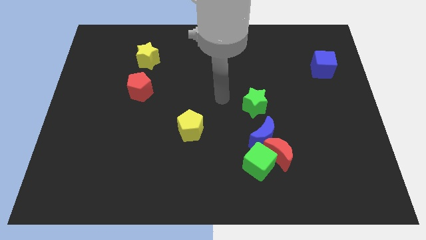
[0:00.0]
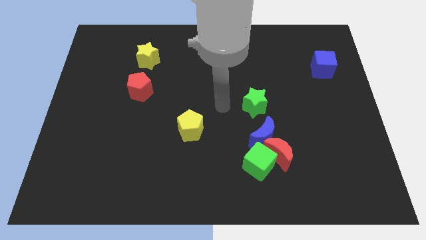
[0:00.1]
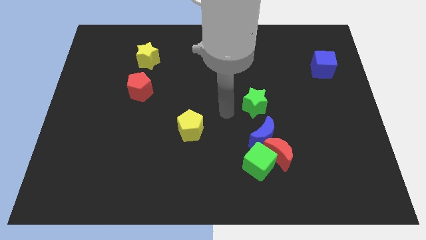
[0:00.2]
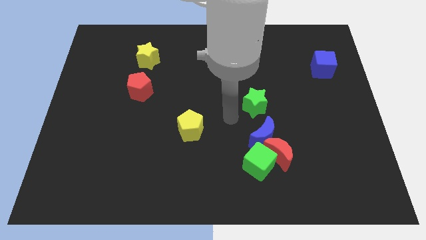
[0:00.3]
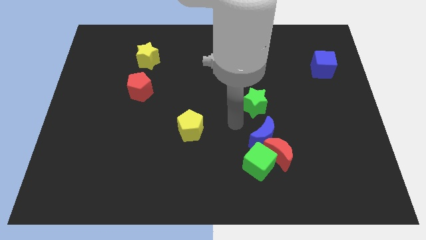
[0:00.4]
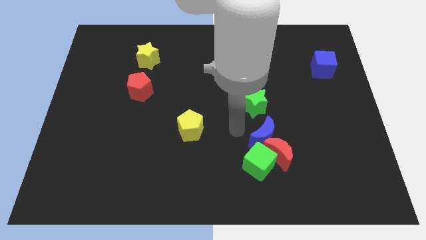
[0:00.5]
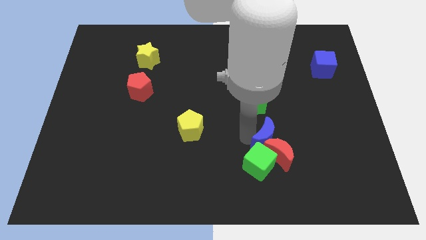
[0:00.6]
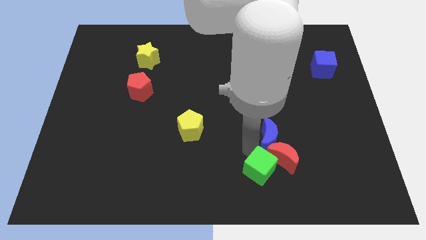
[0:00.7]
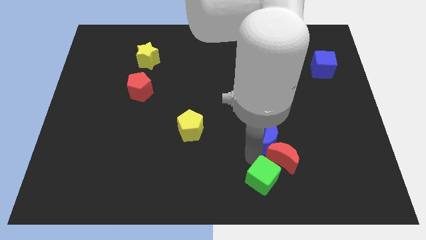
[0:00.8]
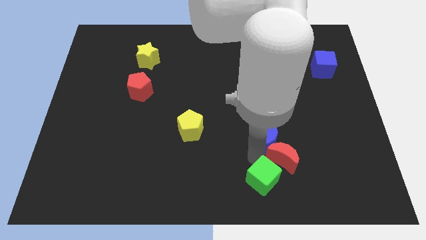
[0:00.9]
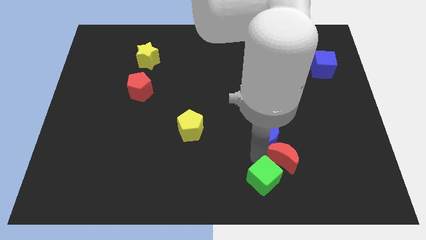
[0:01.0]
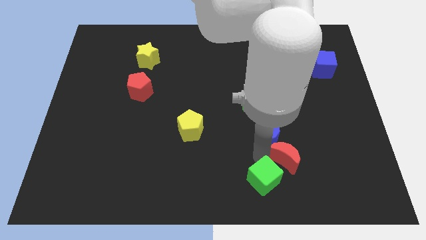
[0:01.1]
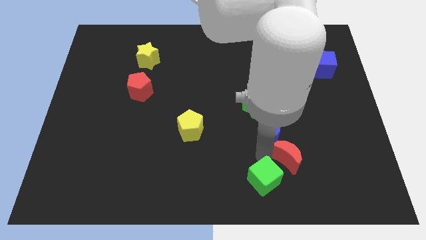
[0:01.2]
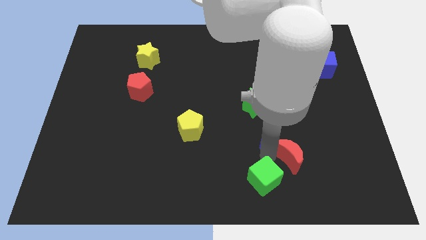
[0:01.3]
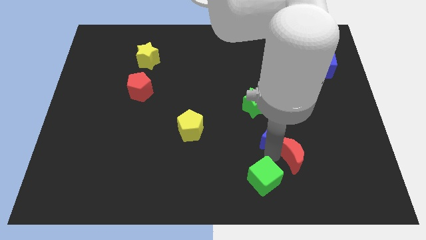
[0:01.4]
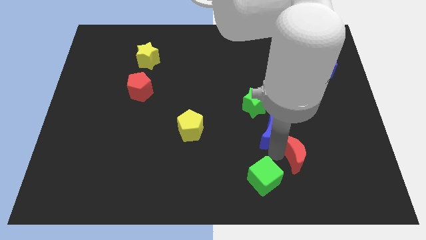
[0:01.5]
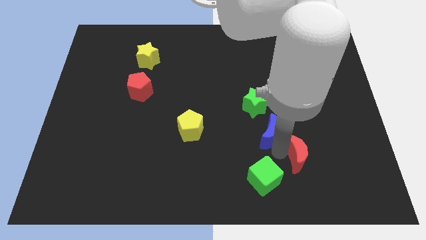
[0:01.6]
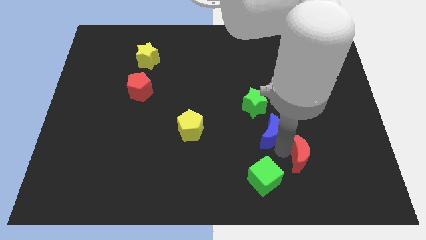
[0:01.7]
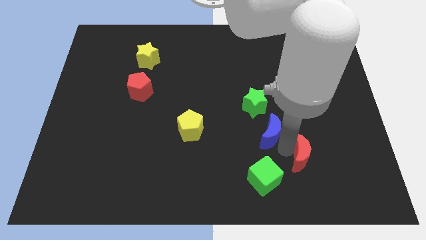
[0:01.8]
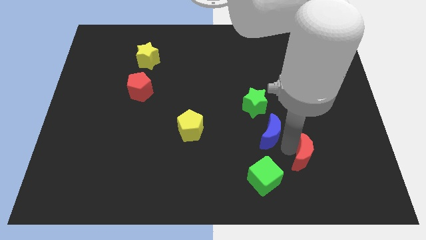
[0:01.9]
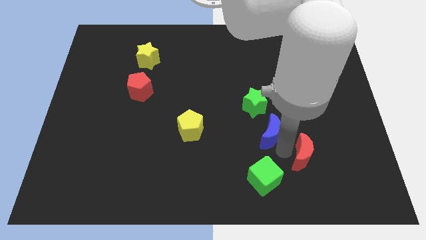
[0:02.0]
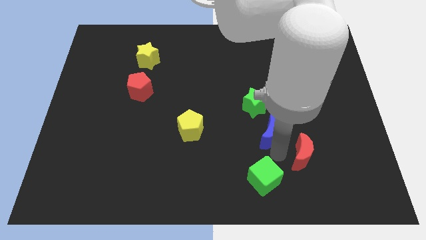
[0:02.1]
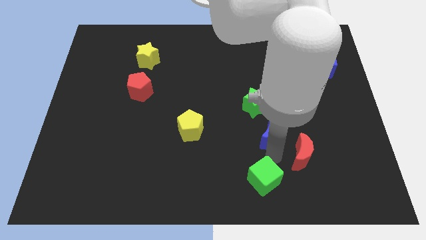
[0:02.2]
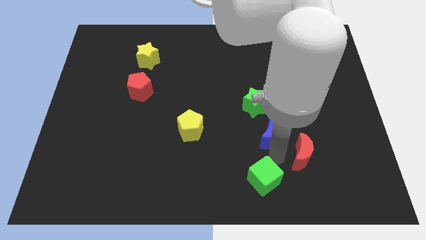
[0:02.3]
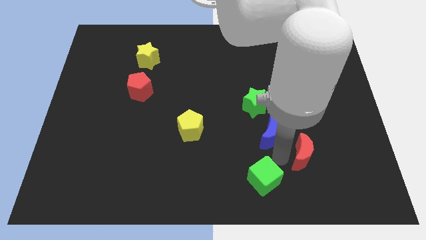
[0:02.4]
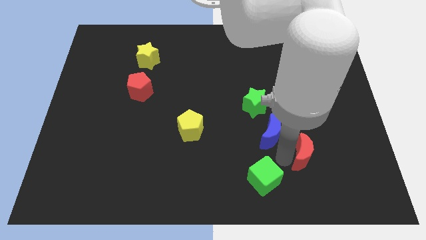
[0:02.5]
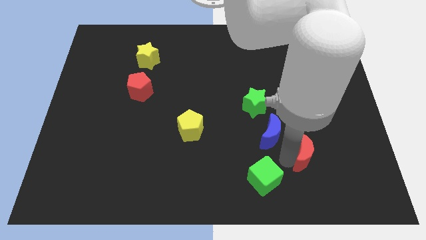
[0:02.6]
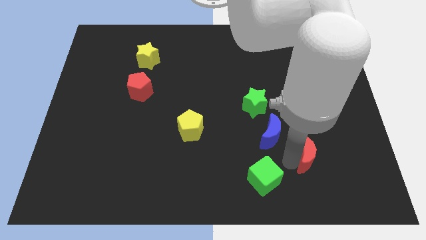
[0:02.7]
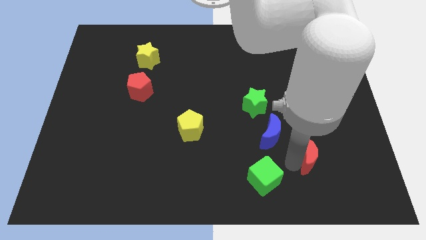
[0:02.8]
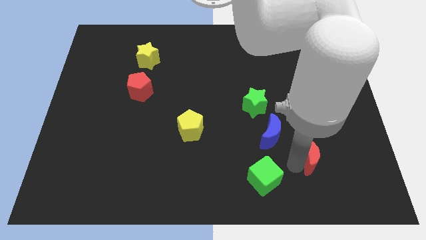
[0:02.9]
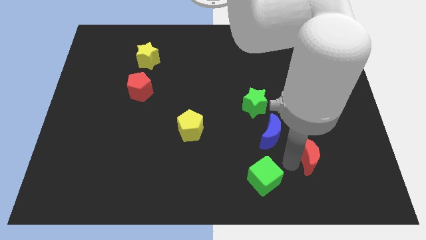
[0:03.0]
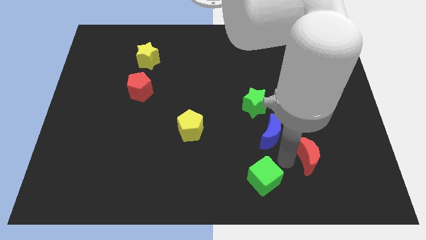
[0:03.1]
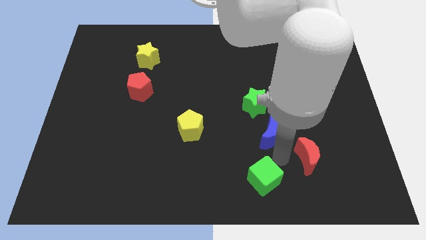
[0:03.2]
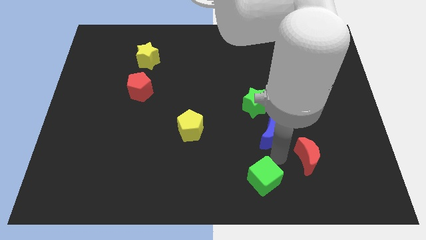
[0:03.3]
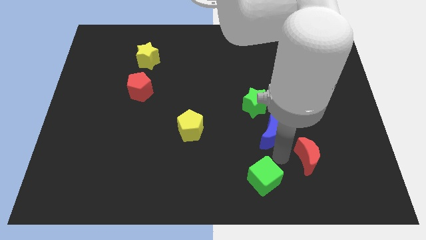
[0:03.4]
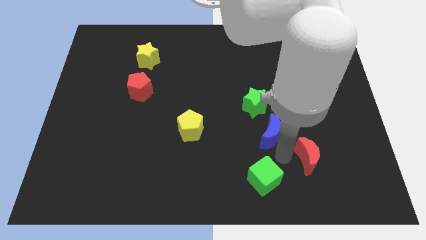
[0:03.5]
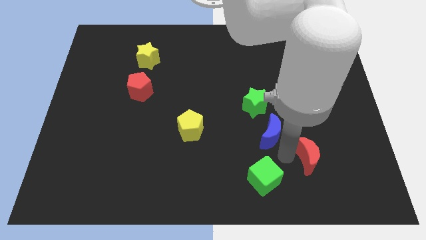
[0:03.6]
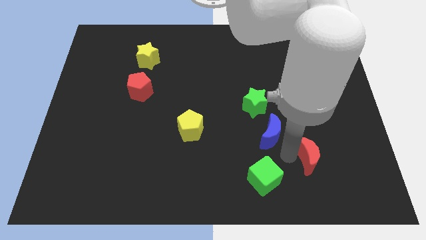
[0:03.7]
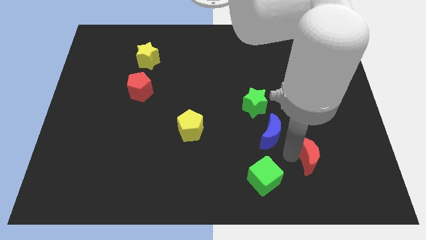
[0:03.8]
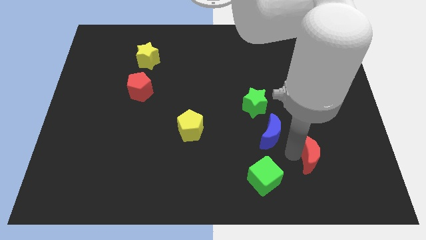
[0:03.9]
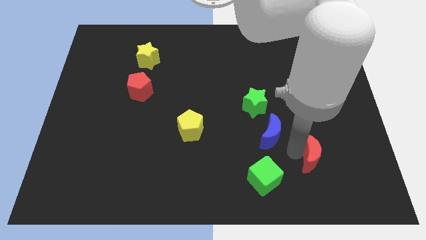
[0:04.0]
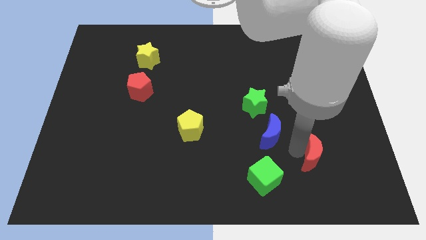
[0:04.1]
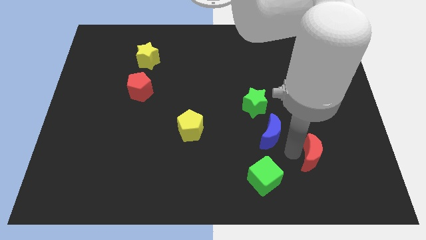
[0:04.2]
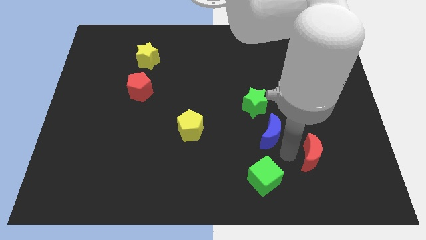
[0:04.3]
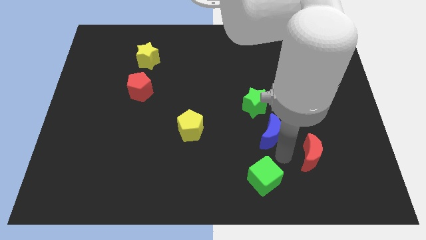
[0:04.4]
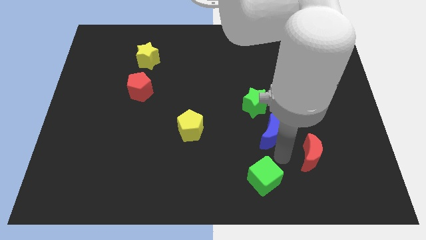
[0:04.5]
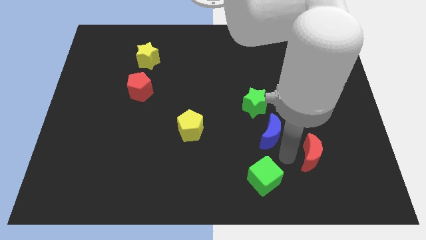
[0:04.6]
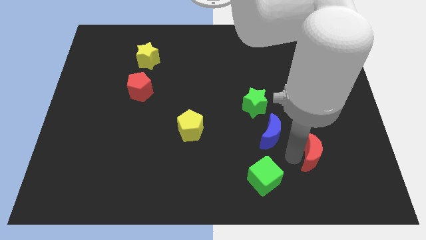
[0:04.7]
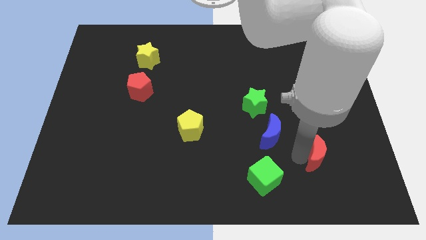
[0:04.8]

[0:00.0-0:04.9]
move the red moon away from the green cube and blue moon

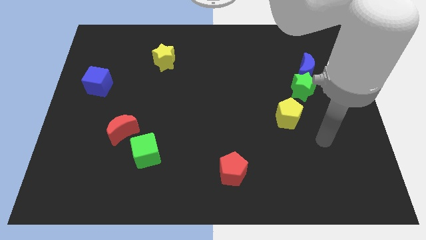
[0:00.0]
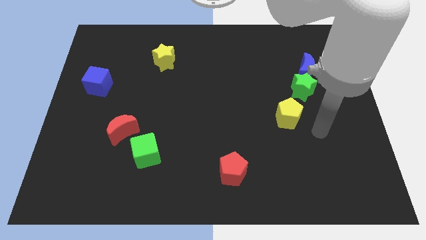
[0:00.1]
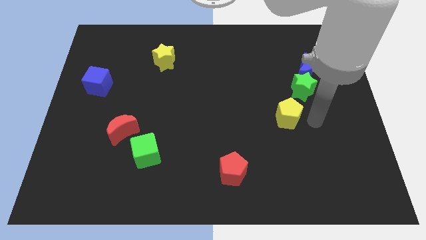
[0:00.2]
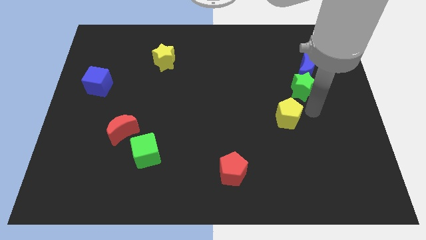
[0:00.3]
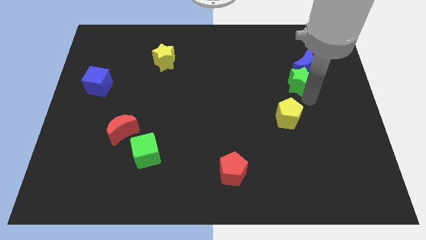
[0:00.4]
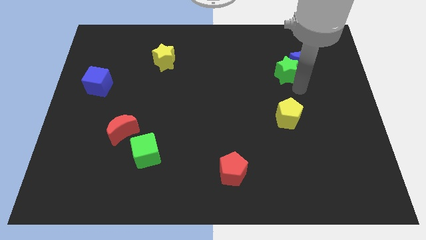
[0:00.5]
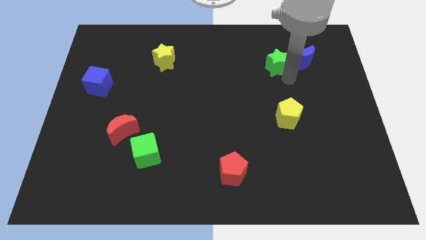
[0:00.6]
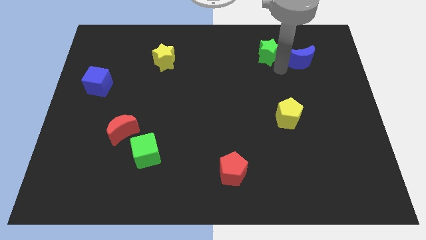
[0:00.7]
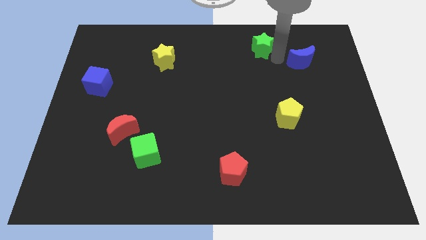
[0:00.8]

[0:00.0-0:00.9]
move the blue moon away from the green star

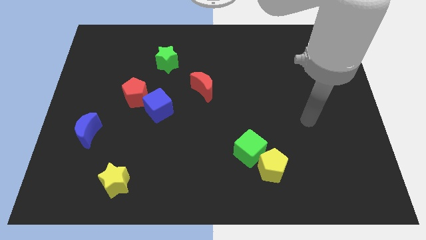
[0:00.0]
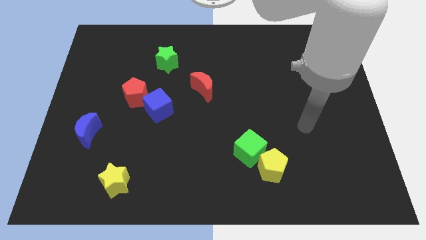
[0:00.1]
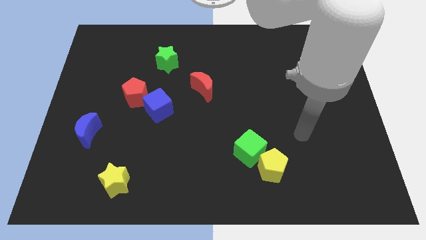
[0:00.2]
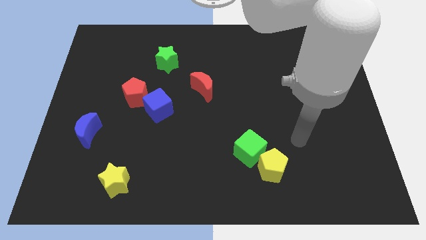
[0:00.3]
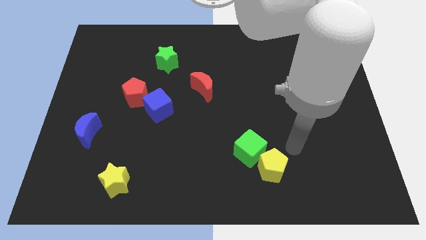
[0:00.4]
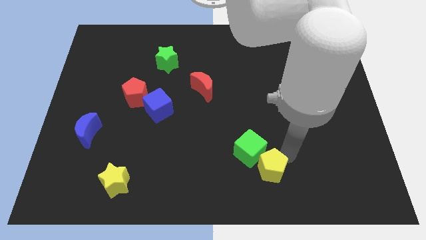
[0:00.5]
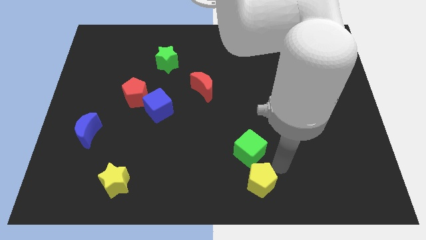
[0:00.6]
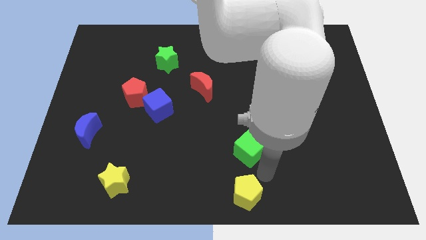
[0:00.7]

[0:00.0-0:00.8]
move the green cube away from the yellow pentagon

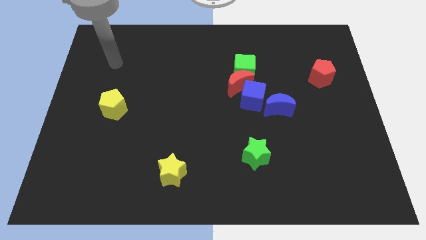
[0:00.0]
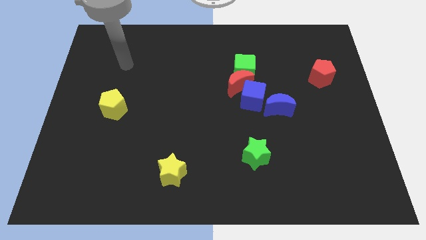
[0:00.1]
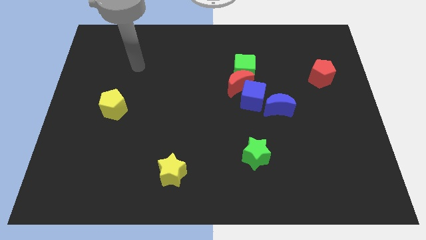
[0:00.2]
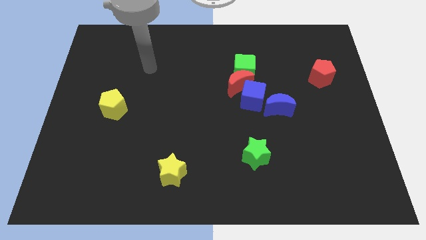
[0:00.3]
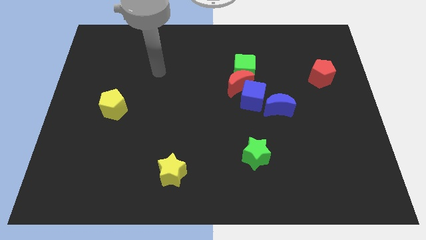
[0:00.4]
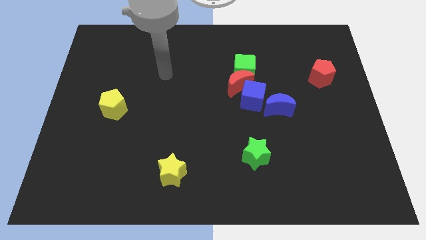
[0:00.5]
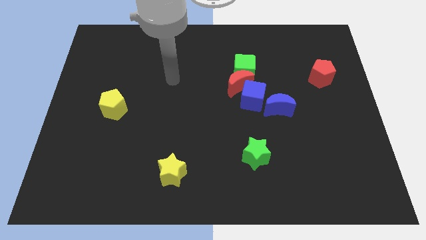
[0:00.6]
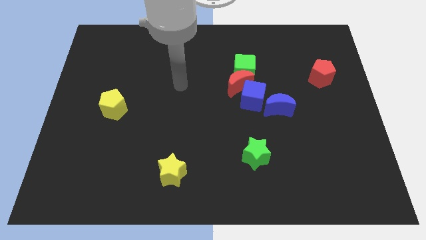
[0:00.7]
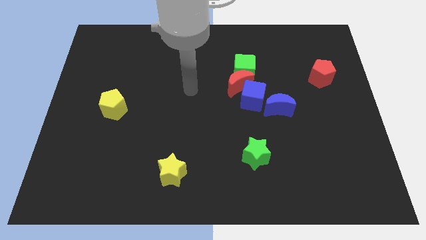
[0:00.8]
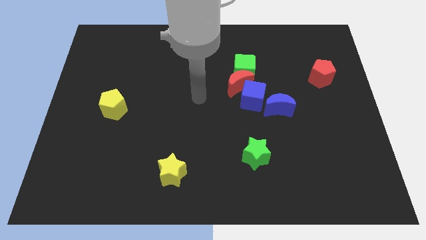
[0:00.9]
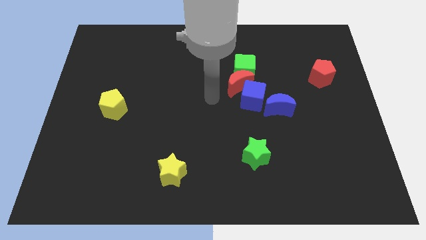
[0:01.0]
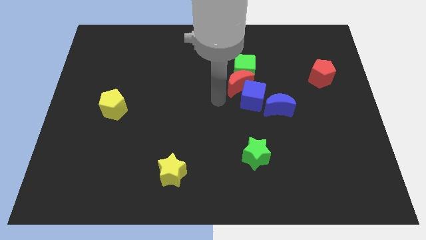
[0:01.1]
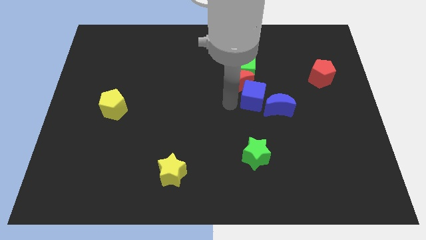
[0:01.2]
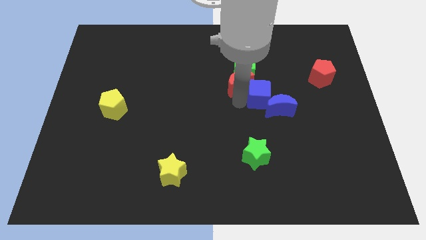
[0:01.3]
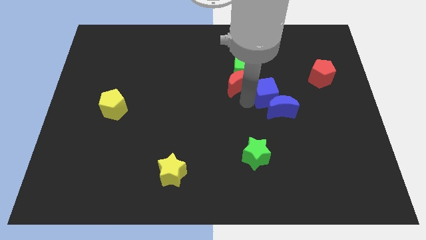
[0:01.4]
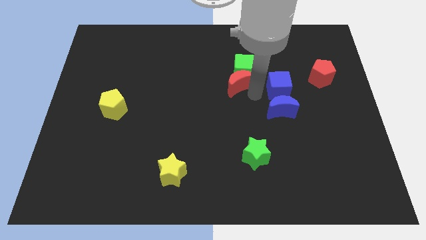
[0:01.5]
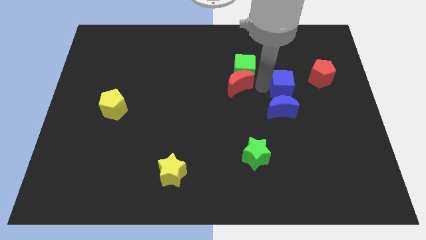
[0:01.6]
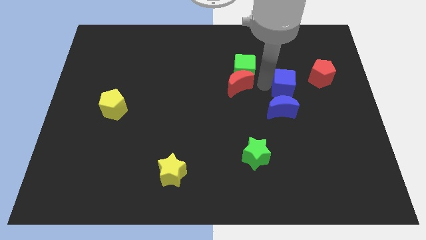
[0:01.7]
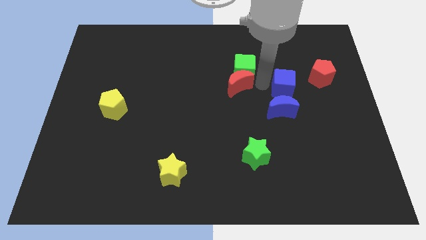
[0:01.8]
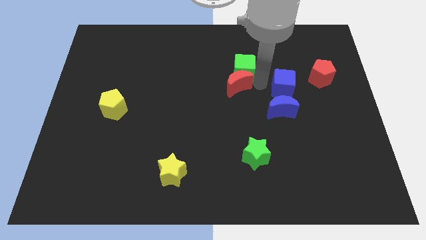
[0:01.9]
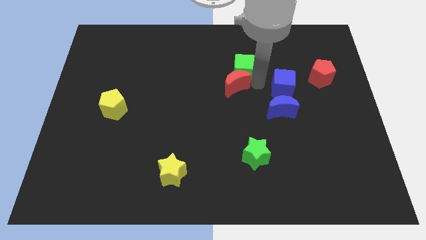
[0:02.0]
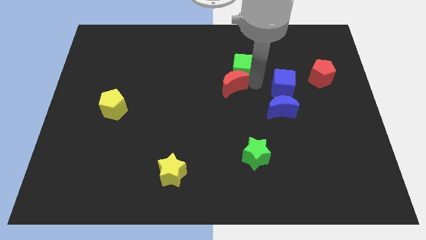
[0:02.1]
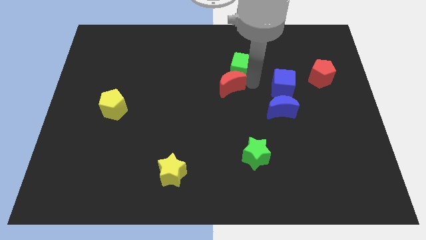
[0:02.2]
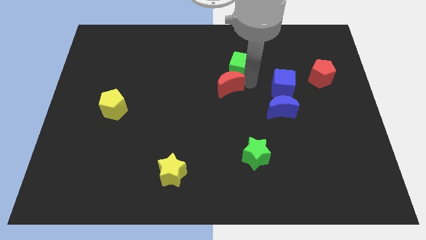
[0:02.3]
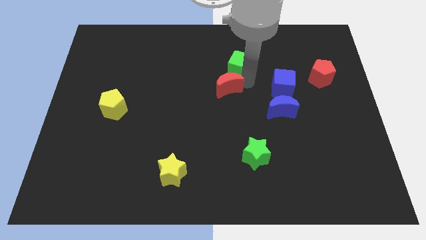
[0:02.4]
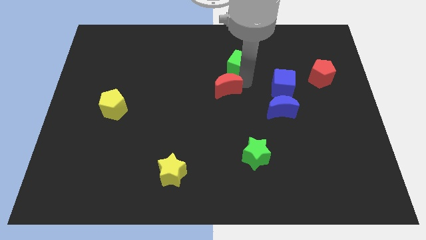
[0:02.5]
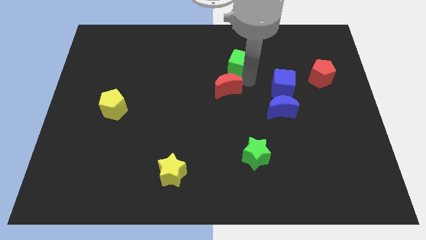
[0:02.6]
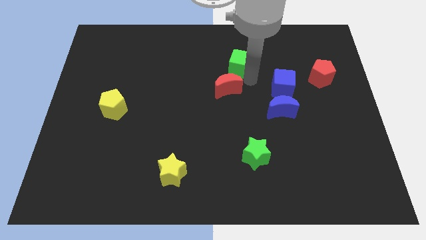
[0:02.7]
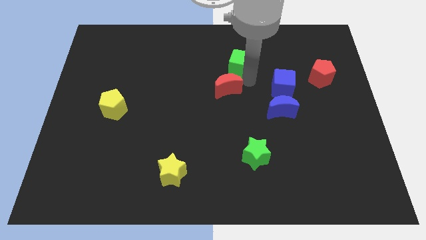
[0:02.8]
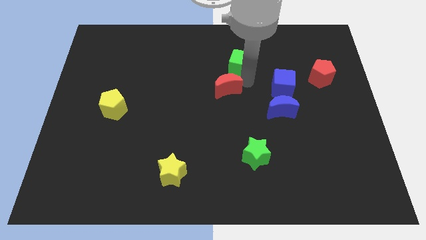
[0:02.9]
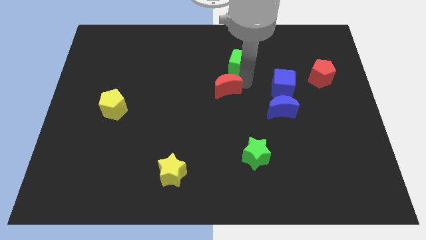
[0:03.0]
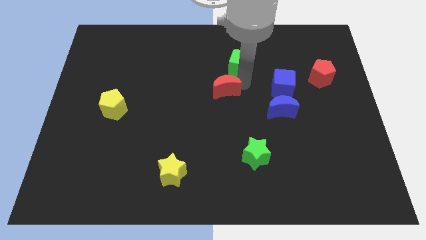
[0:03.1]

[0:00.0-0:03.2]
pull the red moon apart from the green cube and blue cube
